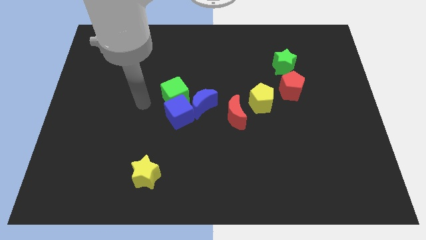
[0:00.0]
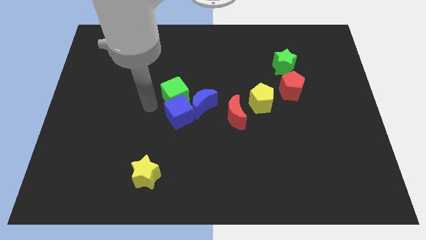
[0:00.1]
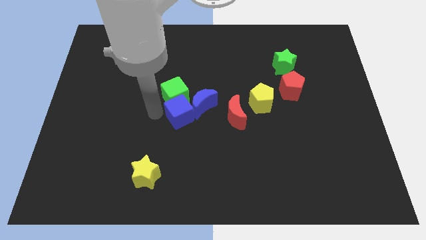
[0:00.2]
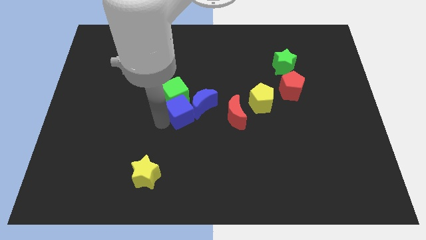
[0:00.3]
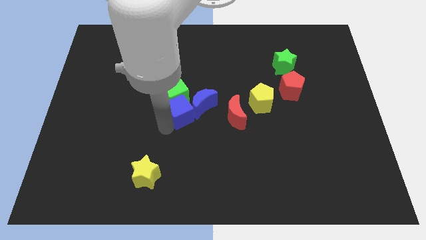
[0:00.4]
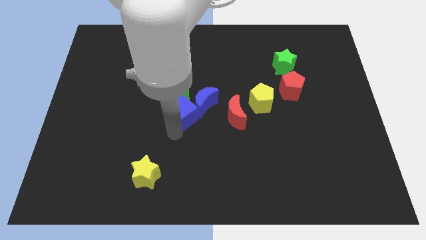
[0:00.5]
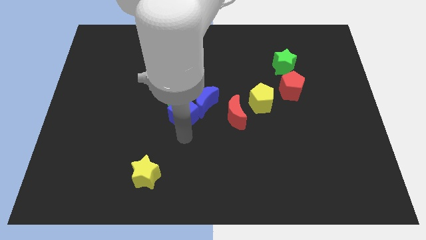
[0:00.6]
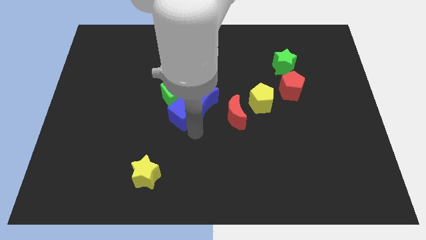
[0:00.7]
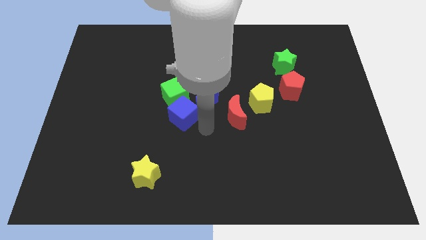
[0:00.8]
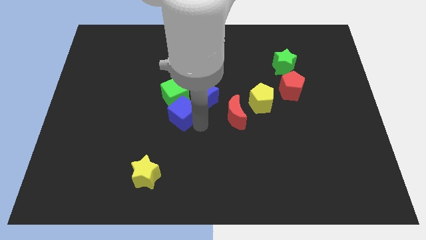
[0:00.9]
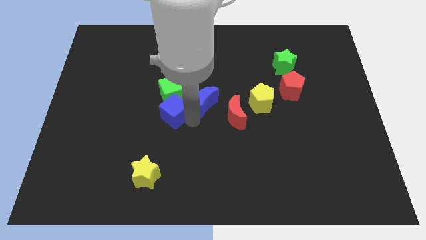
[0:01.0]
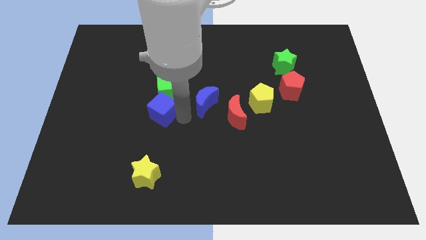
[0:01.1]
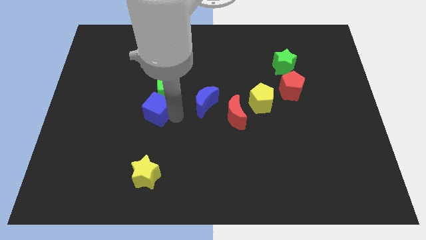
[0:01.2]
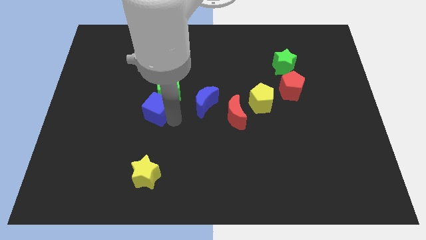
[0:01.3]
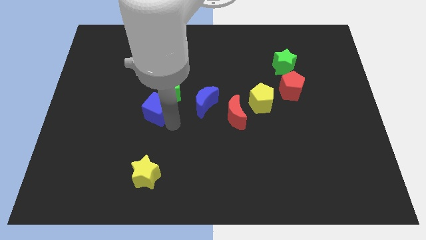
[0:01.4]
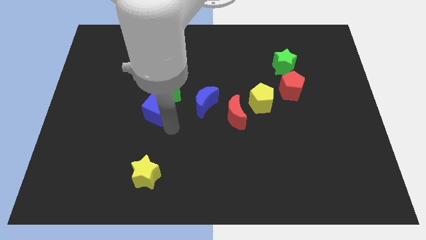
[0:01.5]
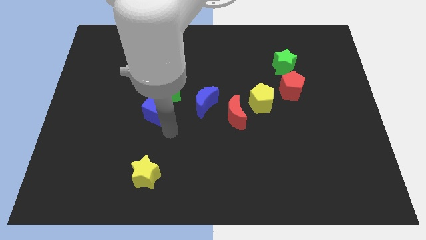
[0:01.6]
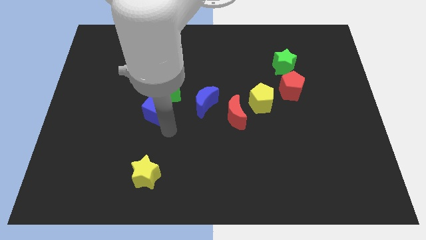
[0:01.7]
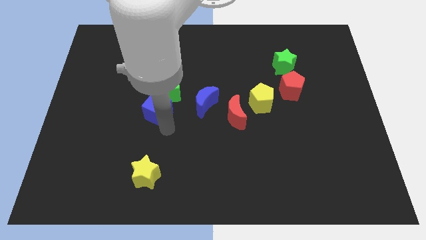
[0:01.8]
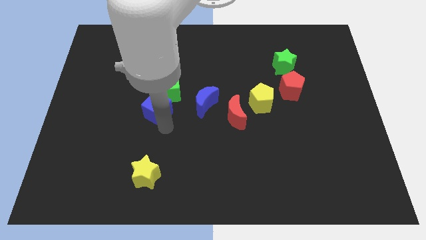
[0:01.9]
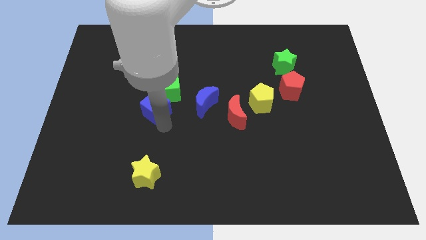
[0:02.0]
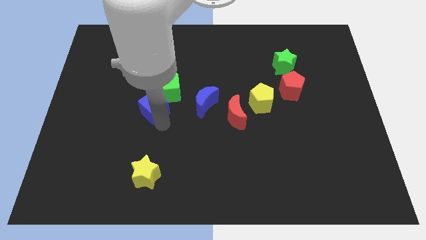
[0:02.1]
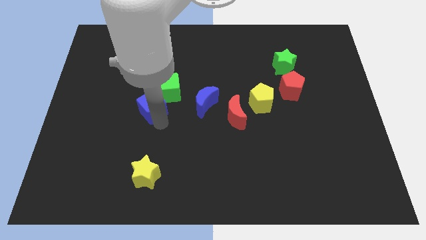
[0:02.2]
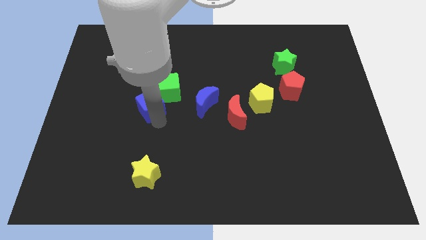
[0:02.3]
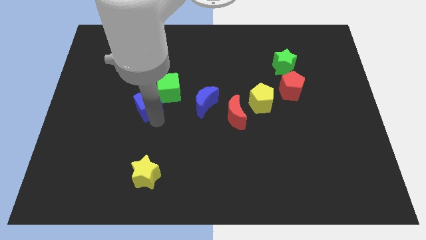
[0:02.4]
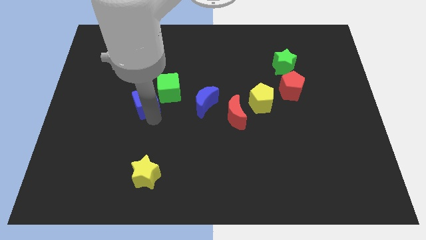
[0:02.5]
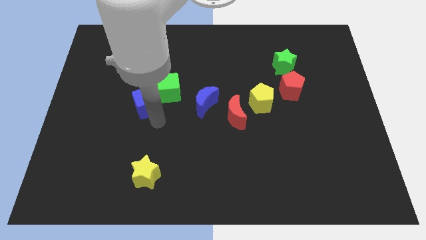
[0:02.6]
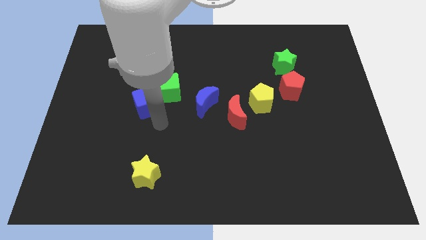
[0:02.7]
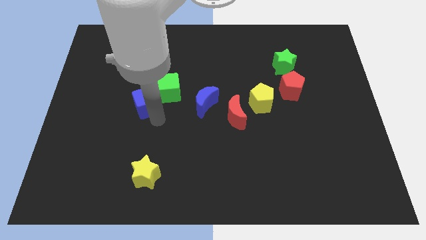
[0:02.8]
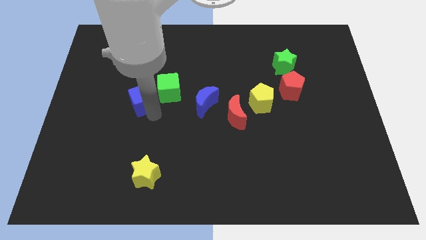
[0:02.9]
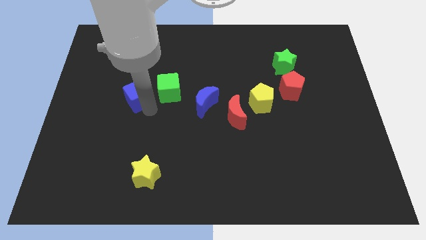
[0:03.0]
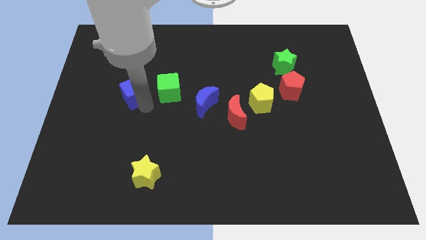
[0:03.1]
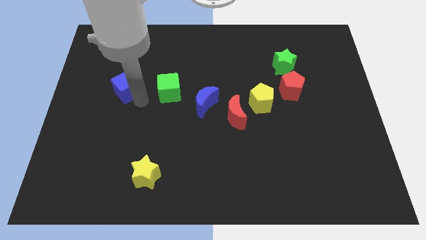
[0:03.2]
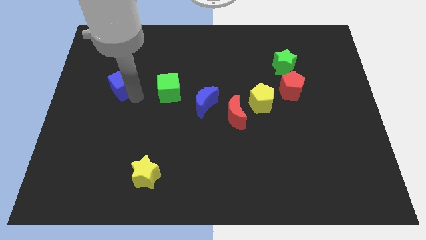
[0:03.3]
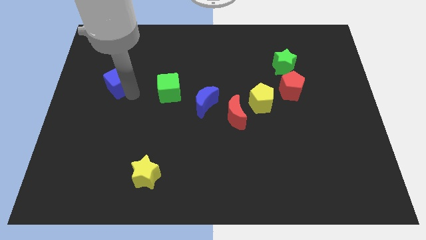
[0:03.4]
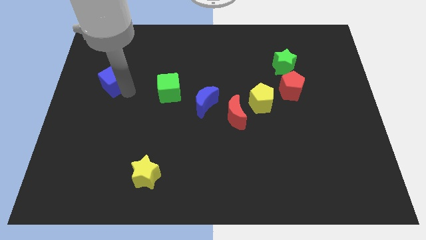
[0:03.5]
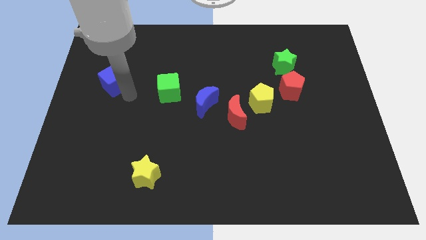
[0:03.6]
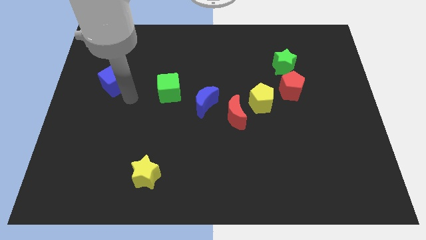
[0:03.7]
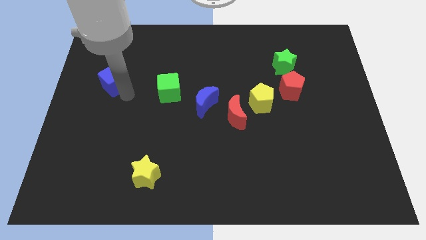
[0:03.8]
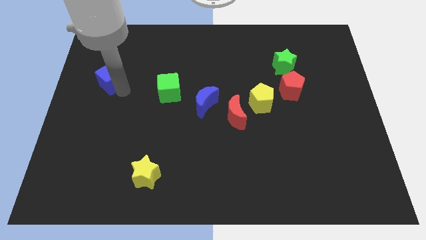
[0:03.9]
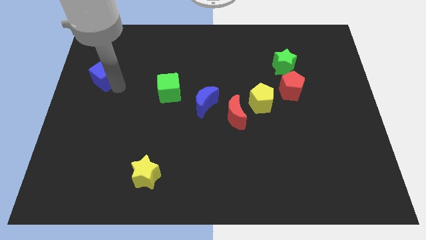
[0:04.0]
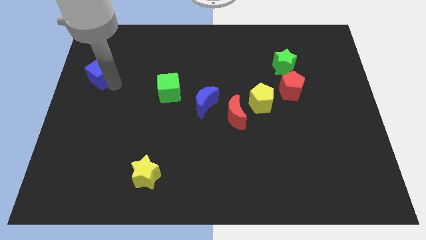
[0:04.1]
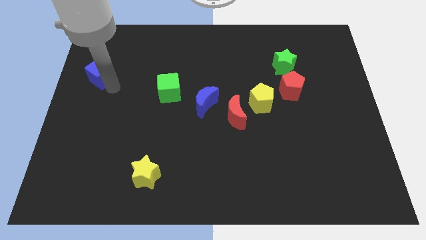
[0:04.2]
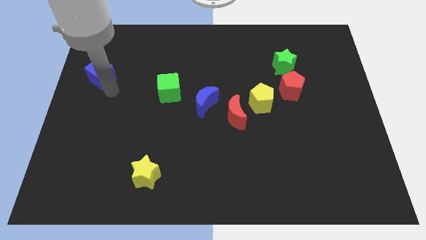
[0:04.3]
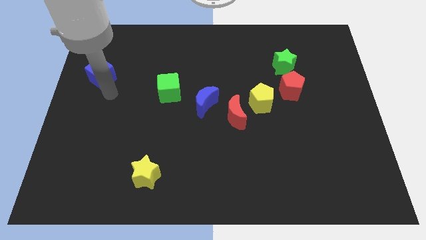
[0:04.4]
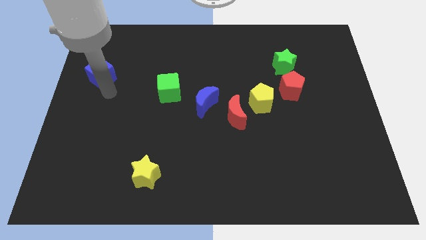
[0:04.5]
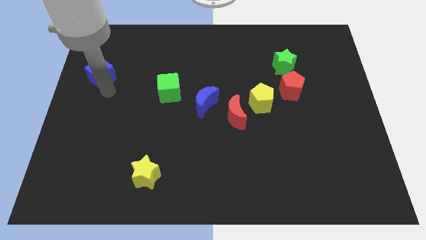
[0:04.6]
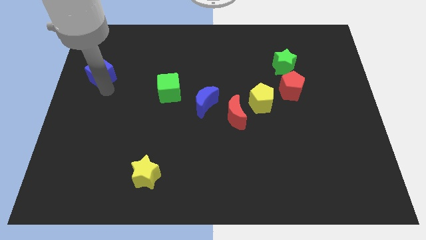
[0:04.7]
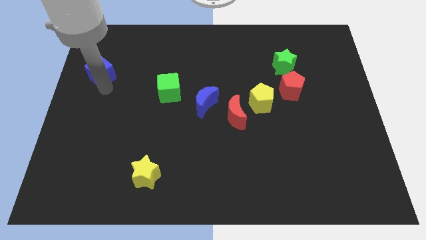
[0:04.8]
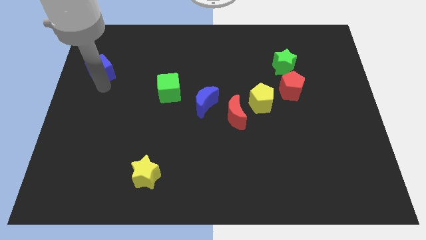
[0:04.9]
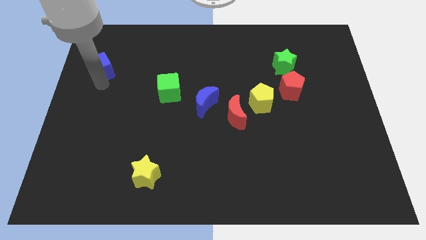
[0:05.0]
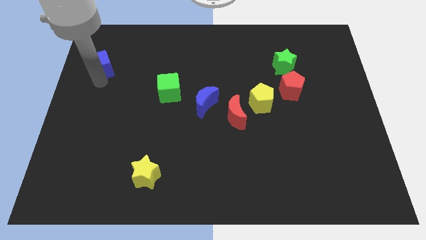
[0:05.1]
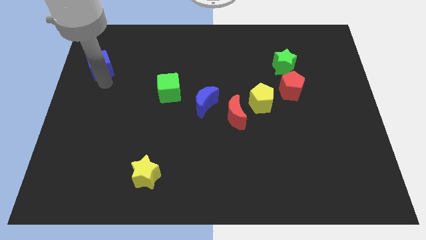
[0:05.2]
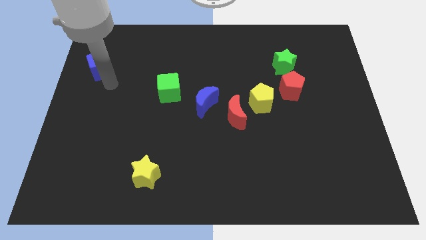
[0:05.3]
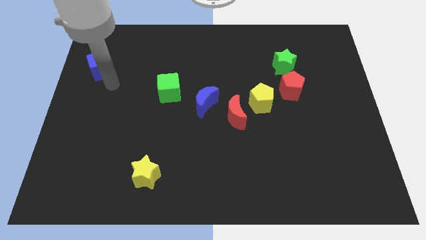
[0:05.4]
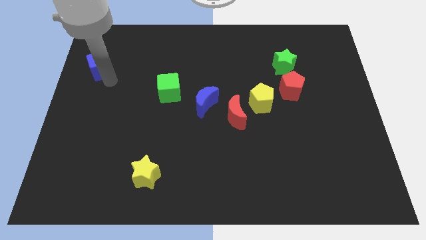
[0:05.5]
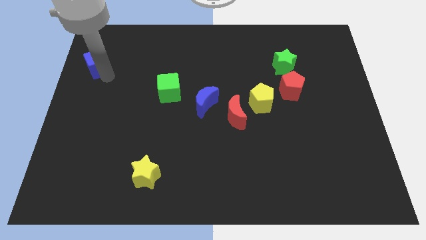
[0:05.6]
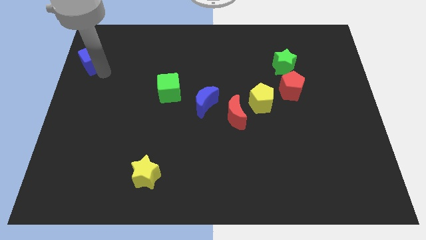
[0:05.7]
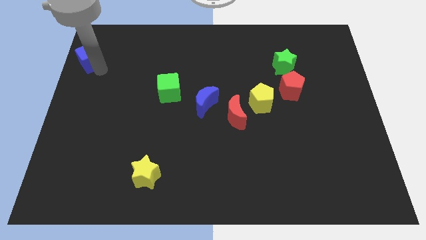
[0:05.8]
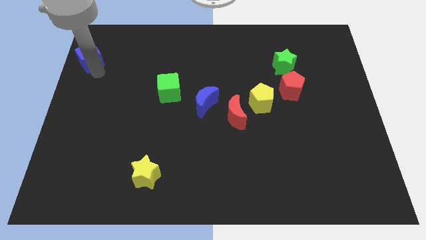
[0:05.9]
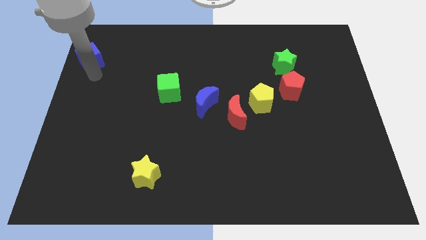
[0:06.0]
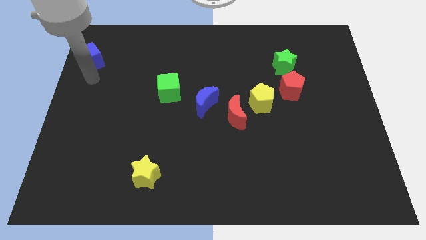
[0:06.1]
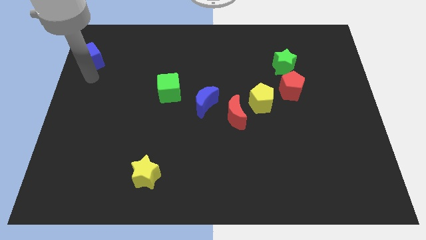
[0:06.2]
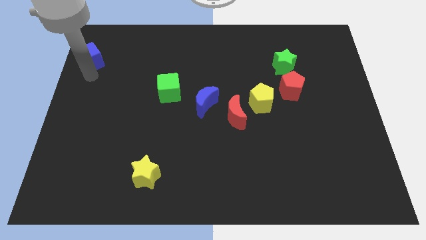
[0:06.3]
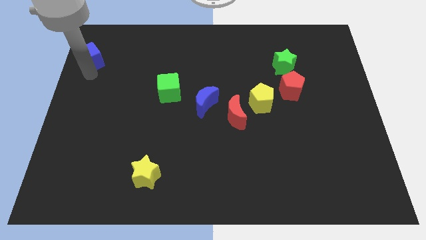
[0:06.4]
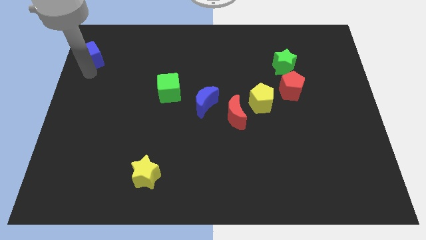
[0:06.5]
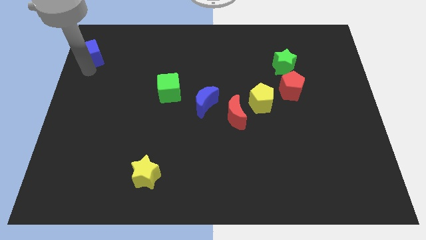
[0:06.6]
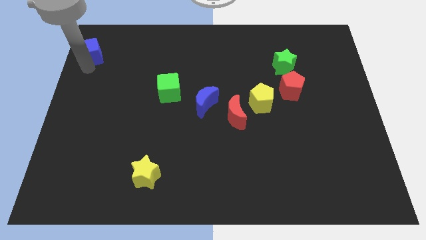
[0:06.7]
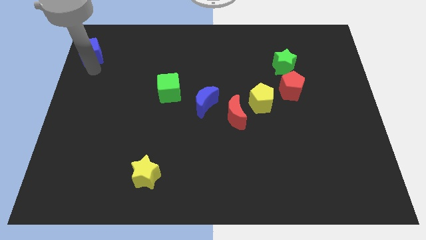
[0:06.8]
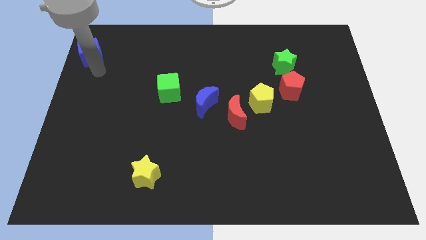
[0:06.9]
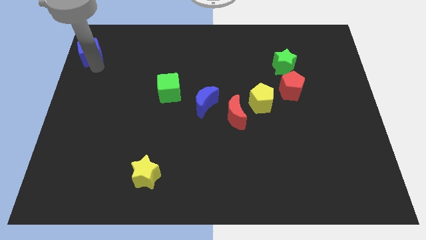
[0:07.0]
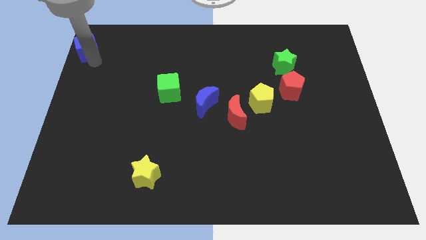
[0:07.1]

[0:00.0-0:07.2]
move the blue cube to the top left corner
